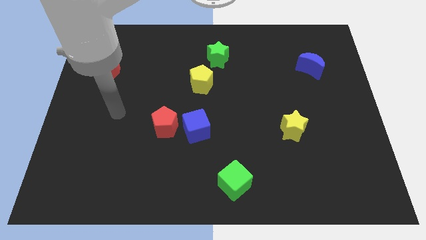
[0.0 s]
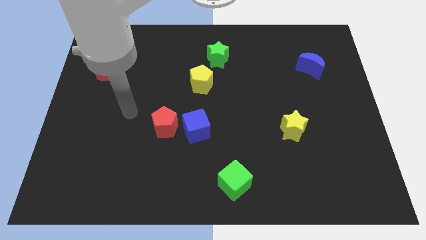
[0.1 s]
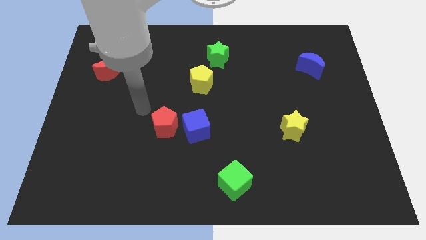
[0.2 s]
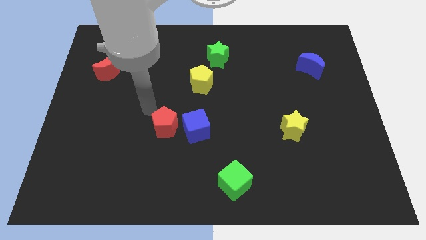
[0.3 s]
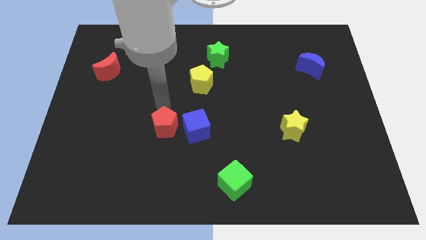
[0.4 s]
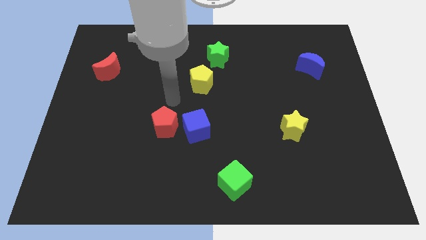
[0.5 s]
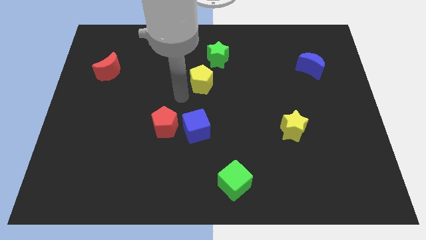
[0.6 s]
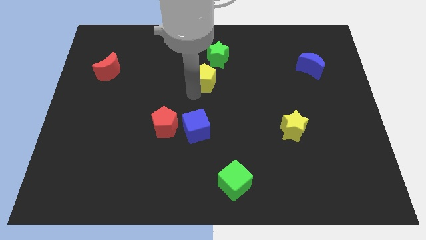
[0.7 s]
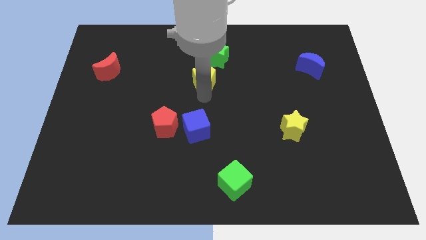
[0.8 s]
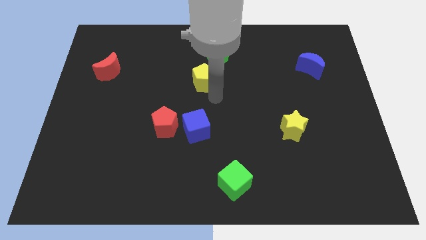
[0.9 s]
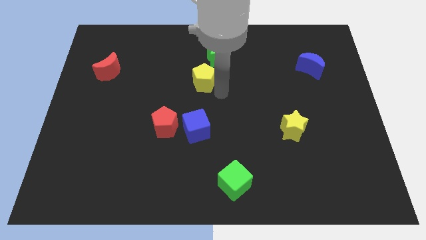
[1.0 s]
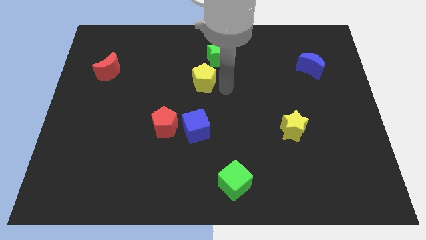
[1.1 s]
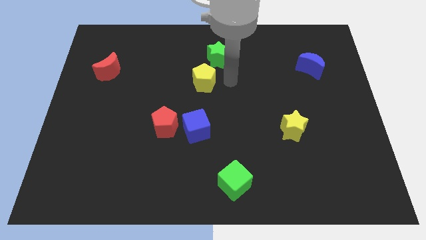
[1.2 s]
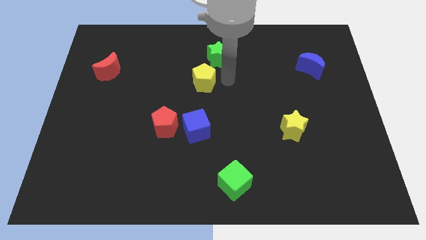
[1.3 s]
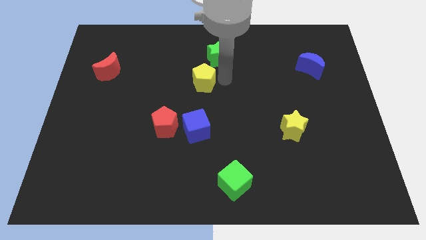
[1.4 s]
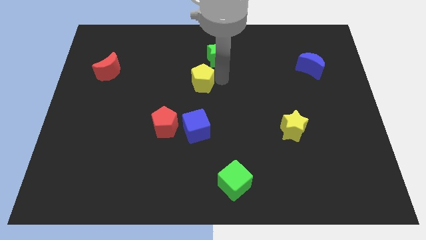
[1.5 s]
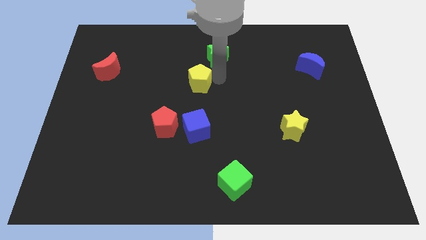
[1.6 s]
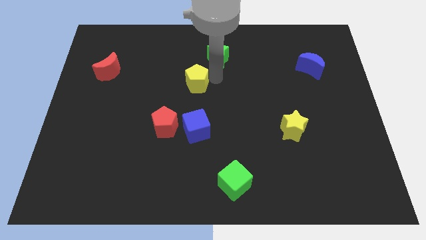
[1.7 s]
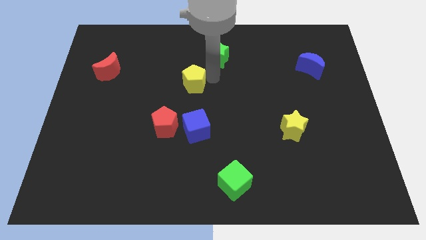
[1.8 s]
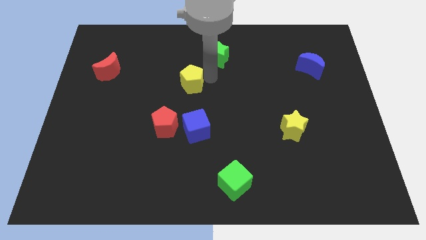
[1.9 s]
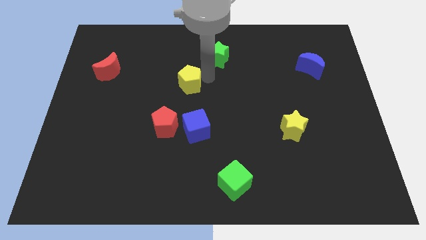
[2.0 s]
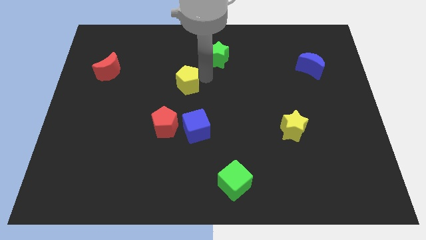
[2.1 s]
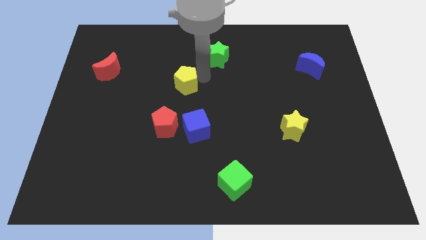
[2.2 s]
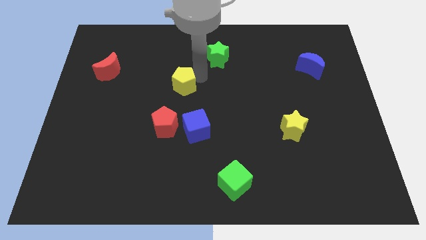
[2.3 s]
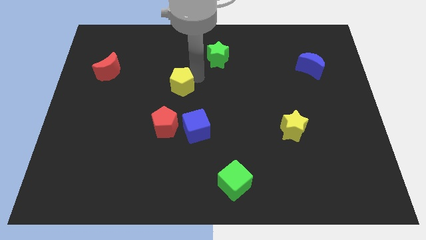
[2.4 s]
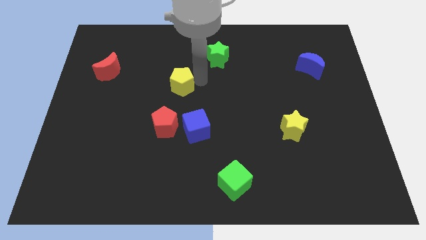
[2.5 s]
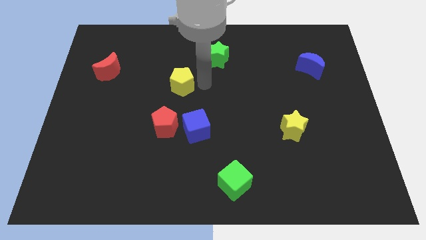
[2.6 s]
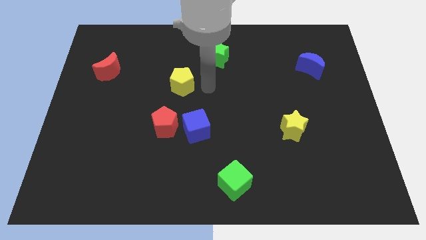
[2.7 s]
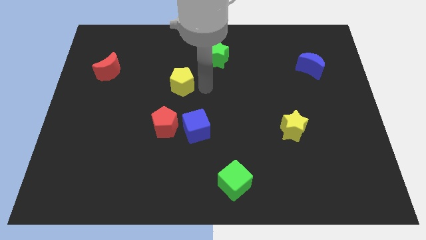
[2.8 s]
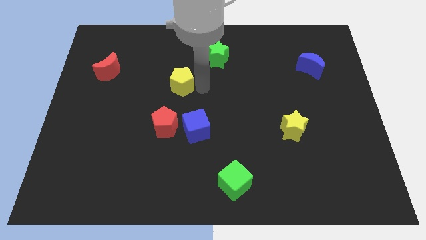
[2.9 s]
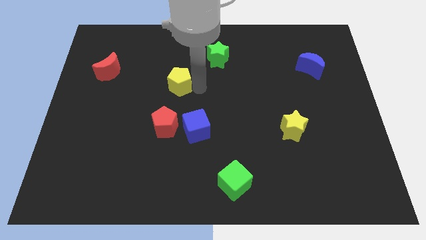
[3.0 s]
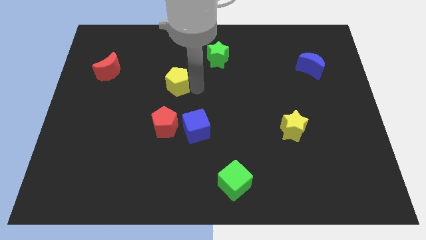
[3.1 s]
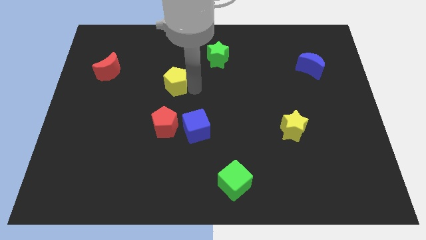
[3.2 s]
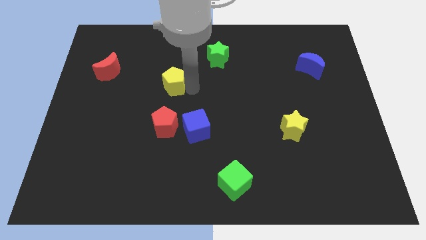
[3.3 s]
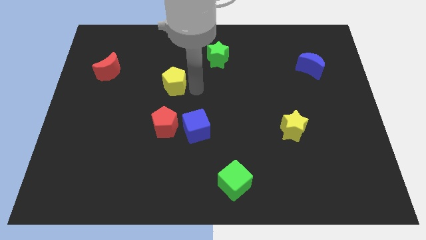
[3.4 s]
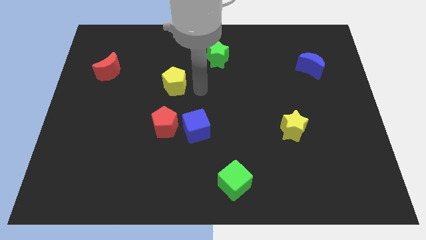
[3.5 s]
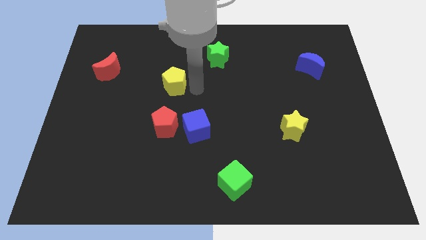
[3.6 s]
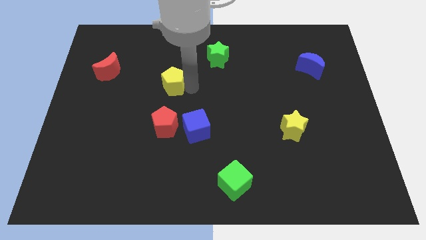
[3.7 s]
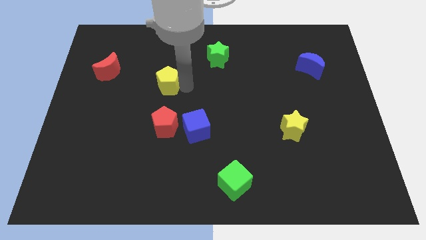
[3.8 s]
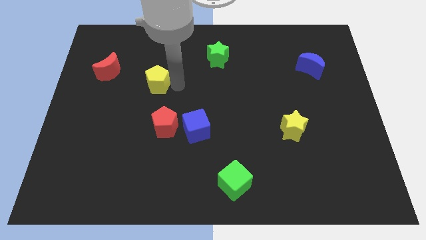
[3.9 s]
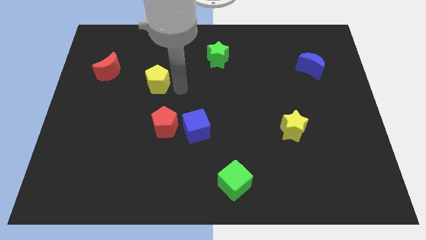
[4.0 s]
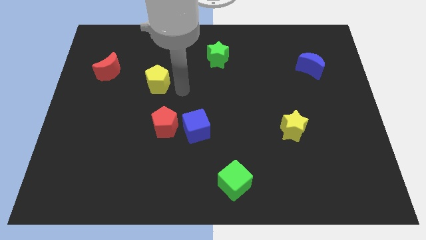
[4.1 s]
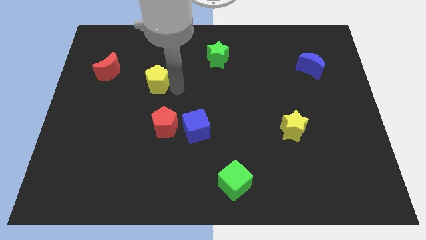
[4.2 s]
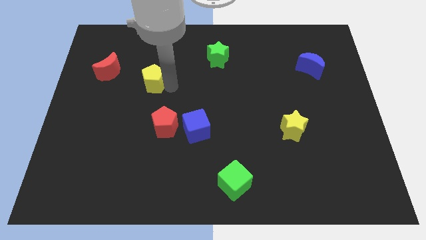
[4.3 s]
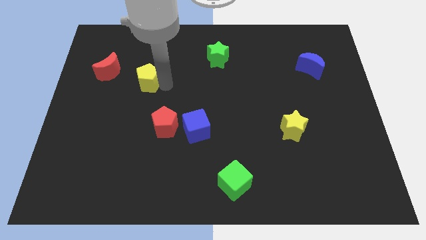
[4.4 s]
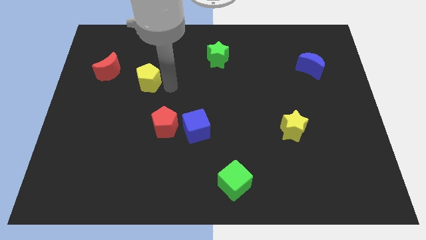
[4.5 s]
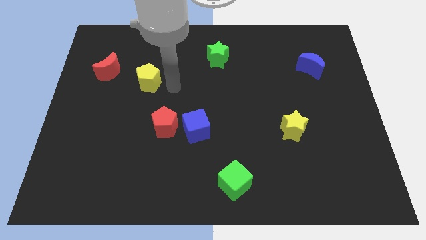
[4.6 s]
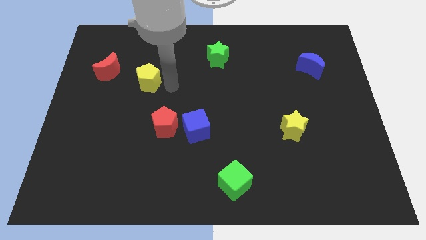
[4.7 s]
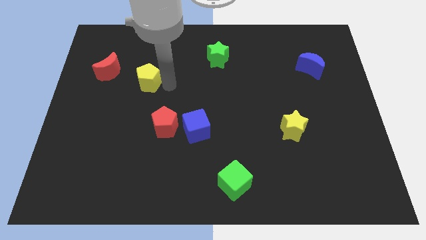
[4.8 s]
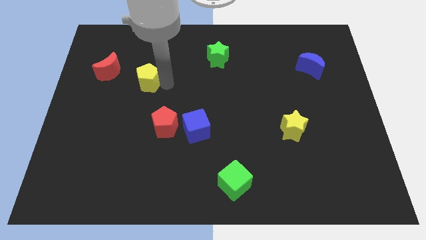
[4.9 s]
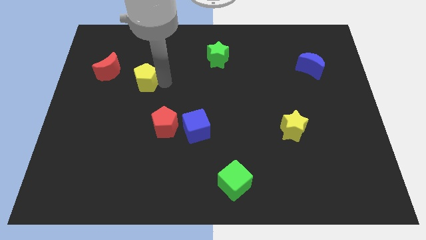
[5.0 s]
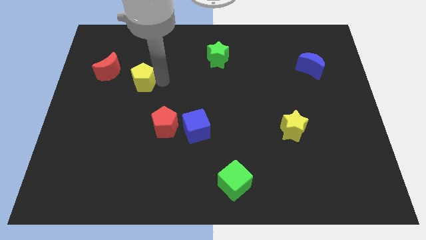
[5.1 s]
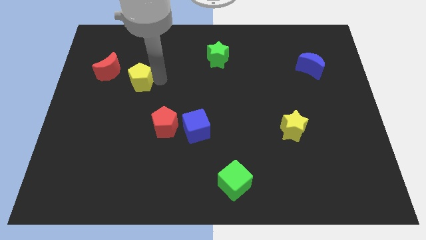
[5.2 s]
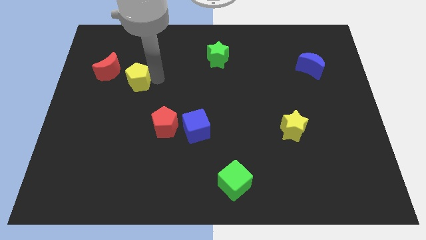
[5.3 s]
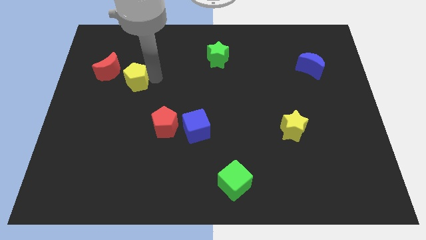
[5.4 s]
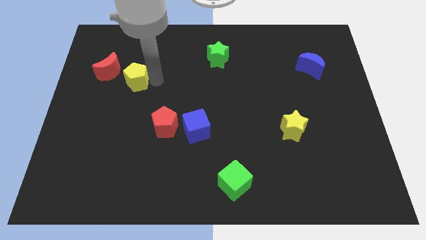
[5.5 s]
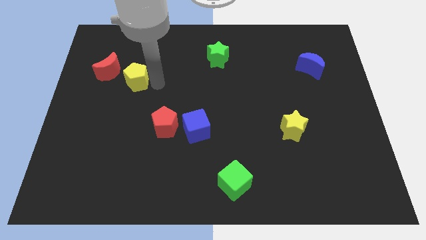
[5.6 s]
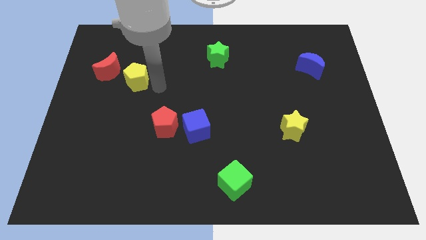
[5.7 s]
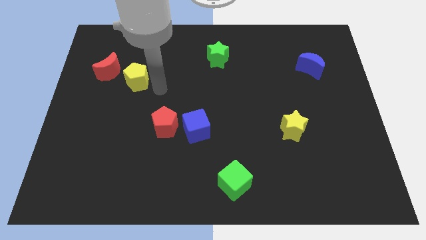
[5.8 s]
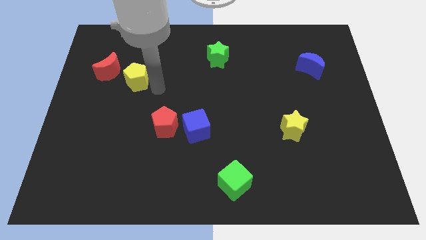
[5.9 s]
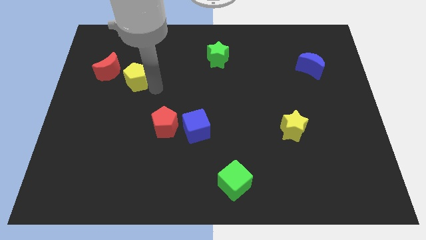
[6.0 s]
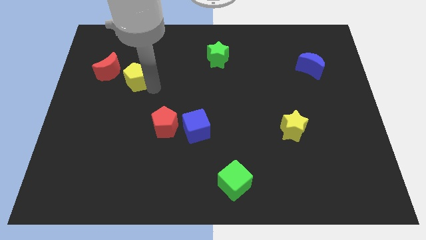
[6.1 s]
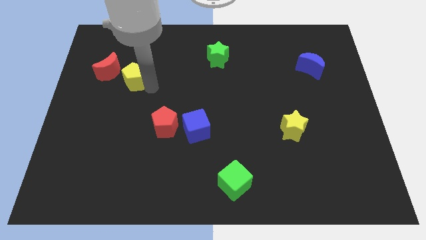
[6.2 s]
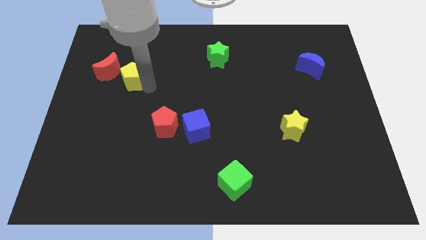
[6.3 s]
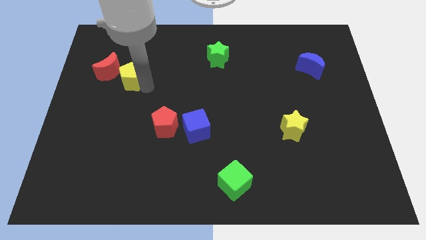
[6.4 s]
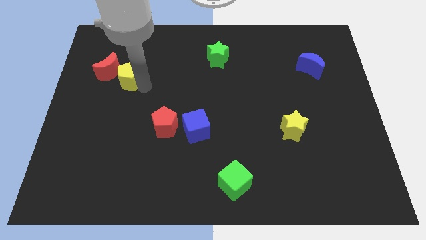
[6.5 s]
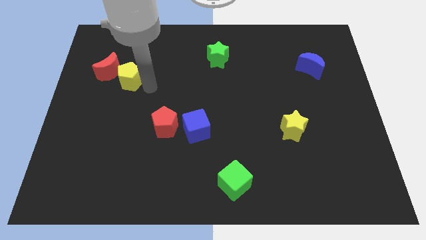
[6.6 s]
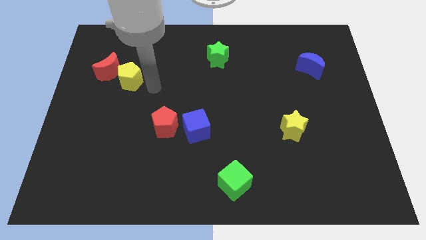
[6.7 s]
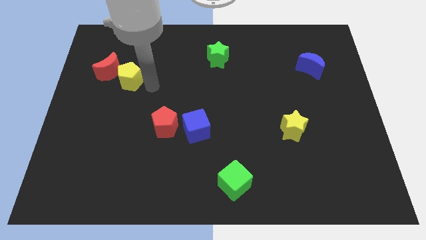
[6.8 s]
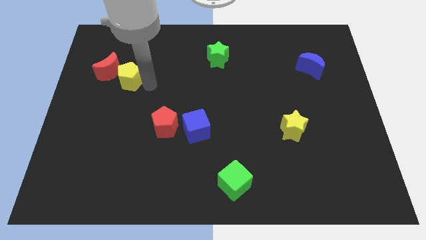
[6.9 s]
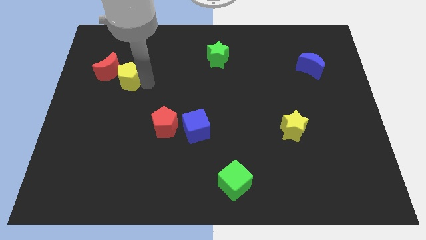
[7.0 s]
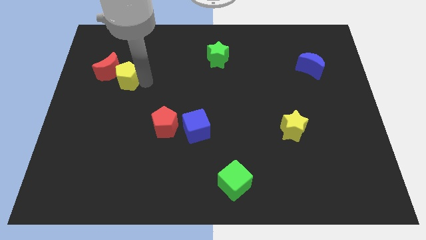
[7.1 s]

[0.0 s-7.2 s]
push the yellow pentagon towards the red moon

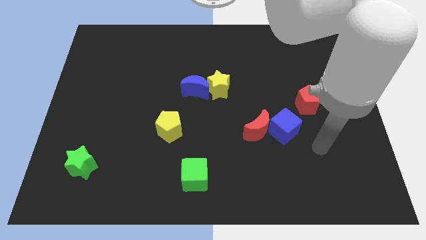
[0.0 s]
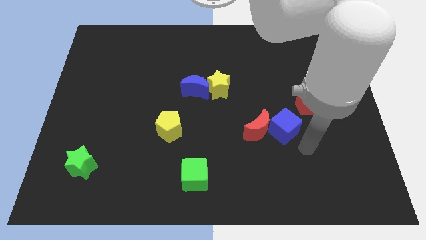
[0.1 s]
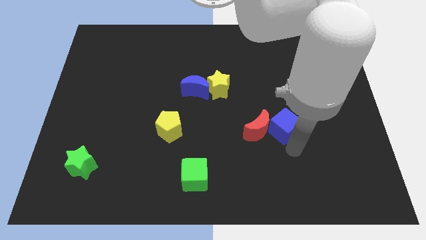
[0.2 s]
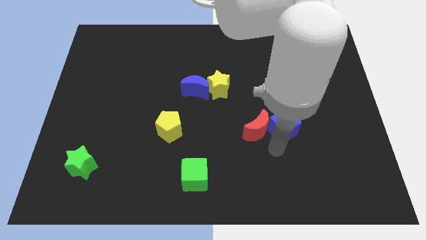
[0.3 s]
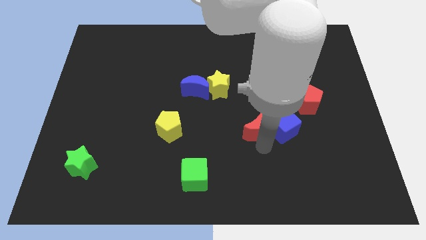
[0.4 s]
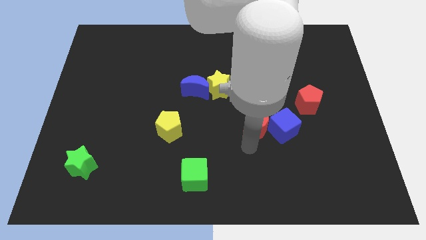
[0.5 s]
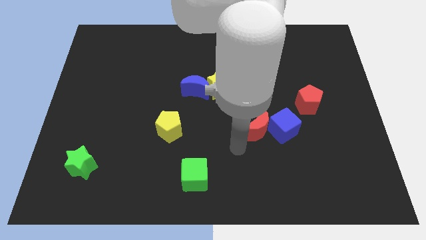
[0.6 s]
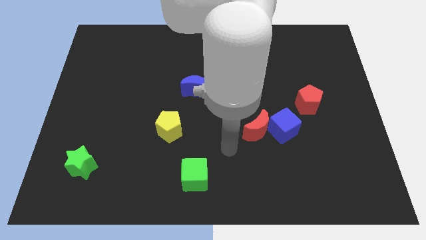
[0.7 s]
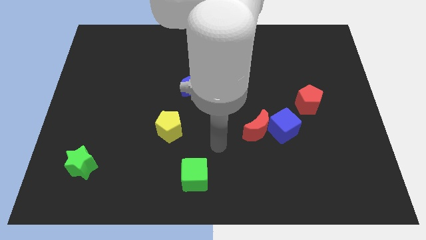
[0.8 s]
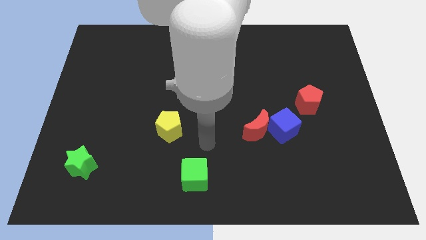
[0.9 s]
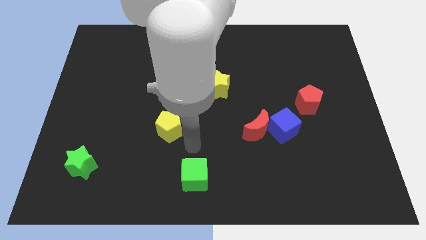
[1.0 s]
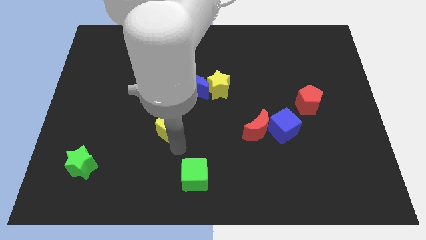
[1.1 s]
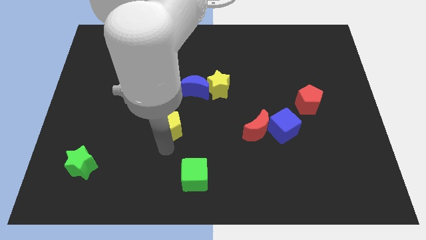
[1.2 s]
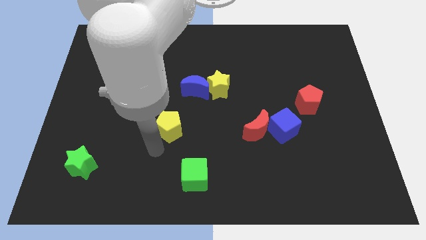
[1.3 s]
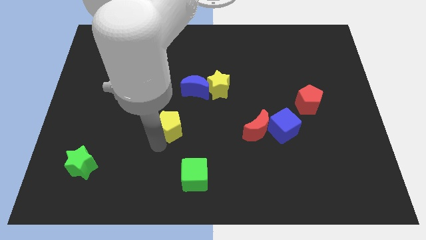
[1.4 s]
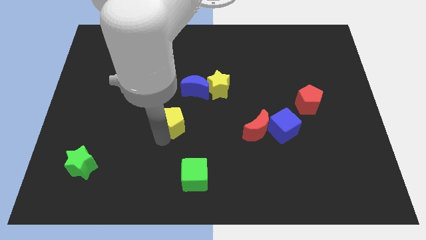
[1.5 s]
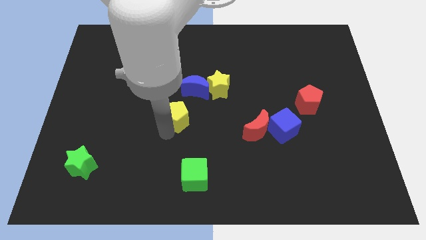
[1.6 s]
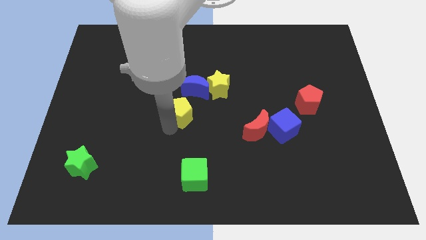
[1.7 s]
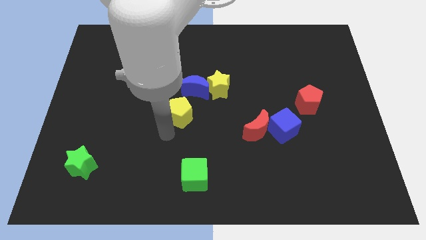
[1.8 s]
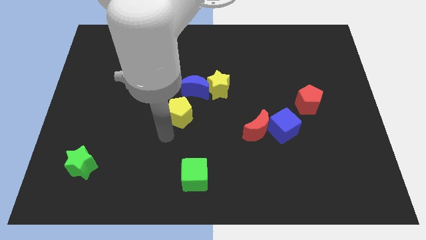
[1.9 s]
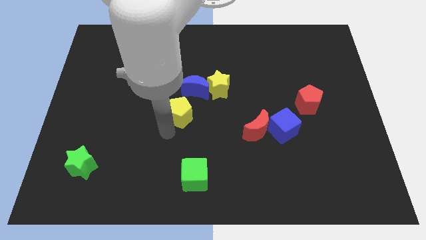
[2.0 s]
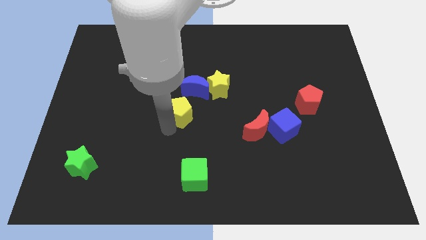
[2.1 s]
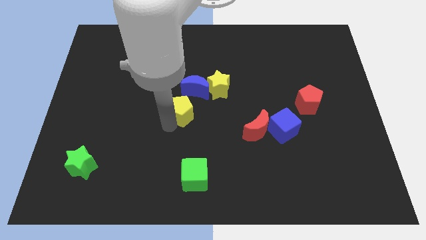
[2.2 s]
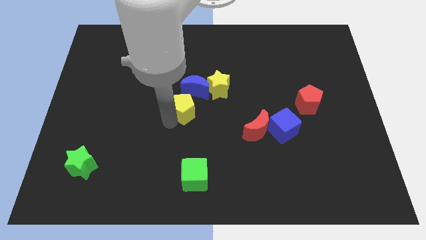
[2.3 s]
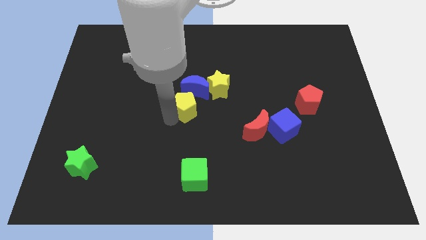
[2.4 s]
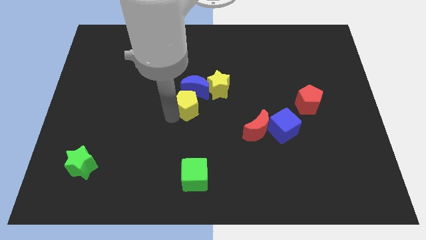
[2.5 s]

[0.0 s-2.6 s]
put the yellow pentagon next to the blue moon
